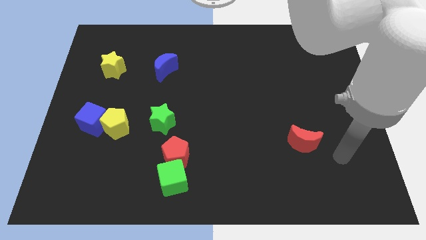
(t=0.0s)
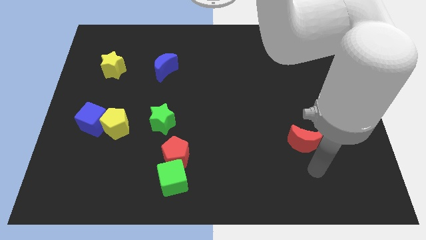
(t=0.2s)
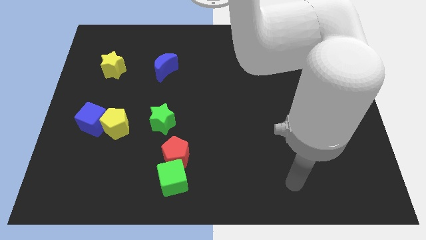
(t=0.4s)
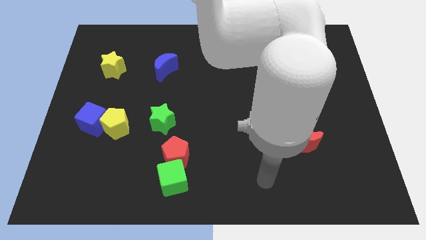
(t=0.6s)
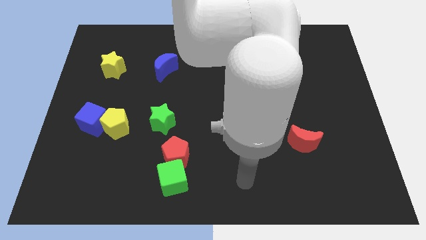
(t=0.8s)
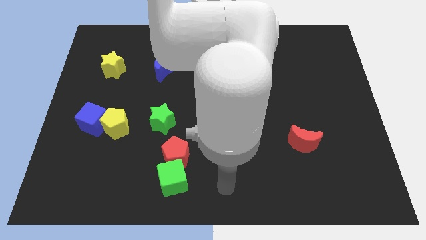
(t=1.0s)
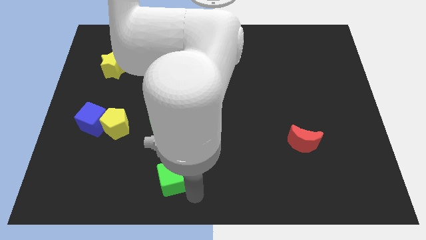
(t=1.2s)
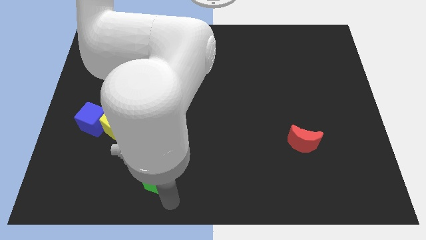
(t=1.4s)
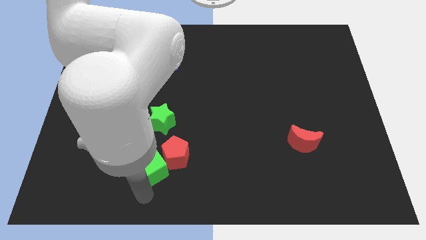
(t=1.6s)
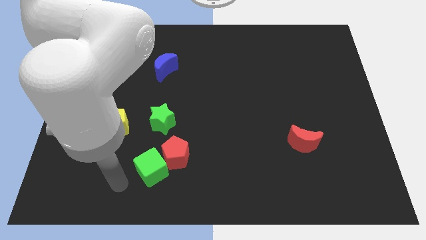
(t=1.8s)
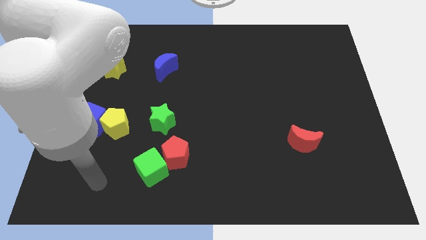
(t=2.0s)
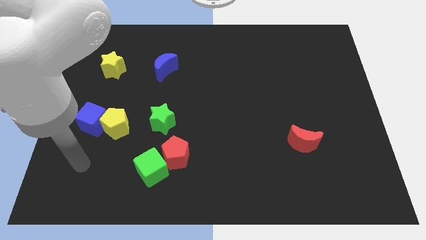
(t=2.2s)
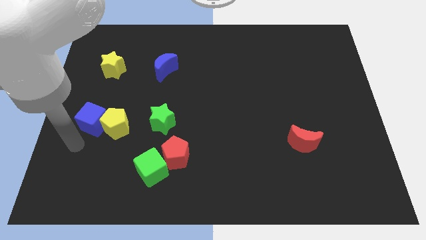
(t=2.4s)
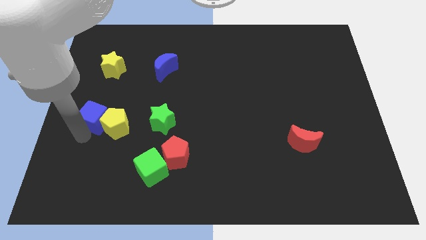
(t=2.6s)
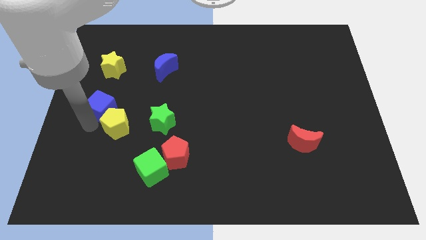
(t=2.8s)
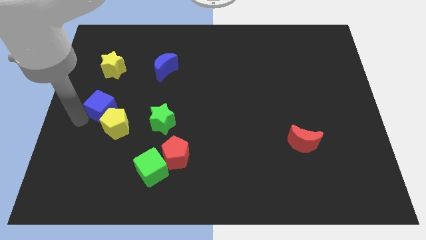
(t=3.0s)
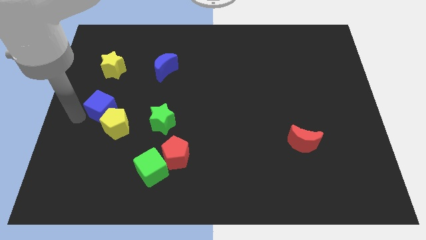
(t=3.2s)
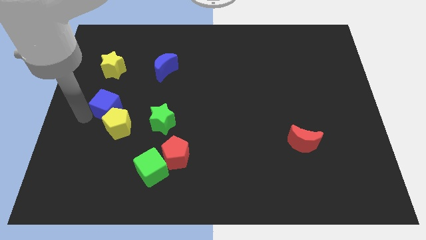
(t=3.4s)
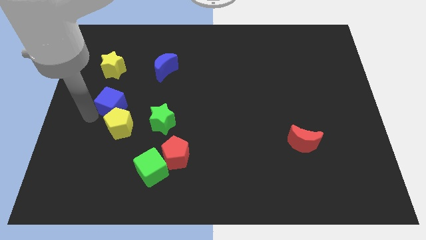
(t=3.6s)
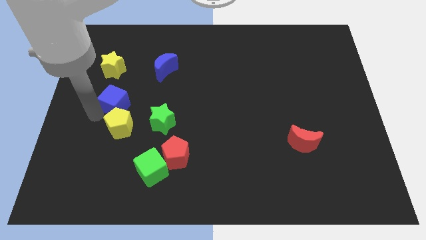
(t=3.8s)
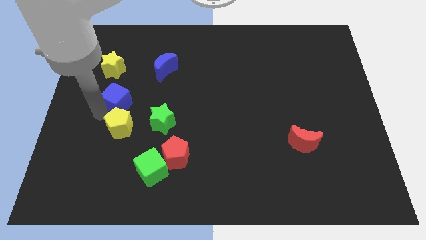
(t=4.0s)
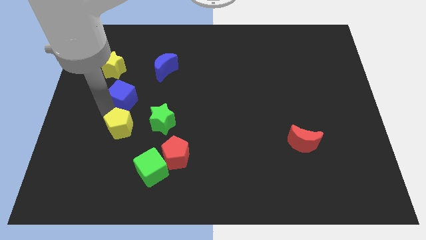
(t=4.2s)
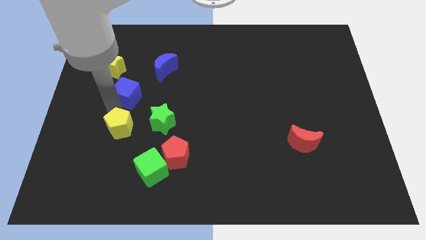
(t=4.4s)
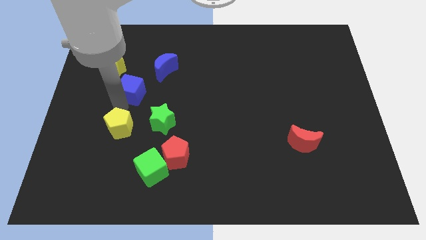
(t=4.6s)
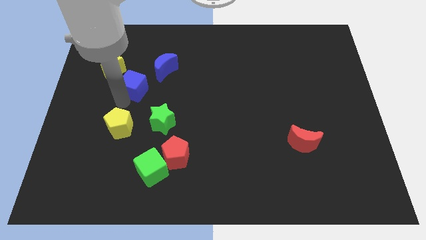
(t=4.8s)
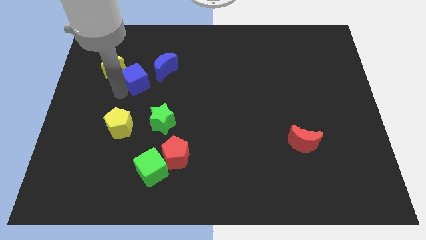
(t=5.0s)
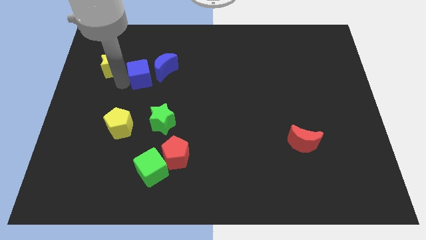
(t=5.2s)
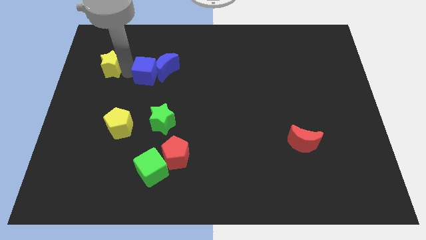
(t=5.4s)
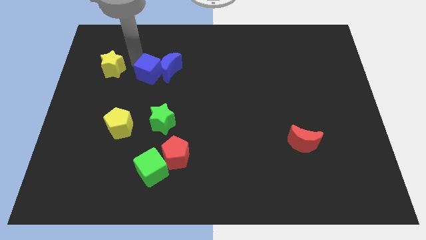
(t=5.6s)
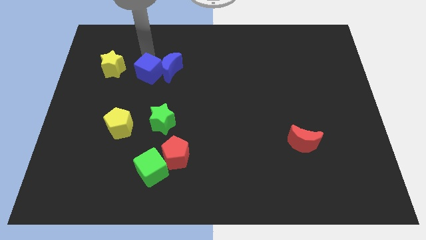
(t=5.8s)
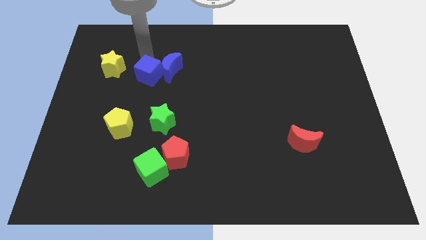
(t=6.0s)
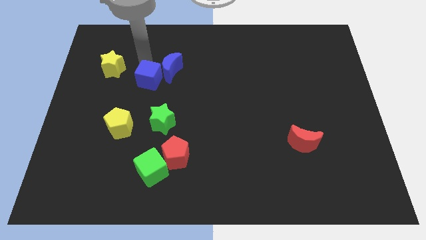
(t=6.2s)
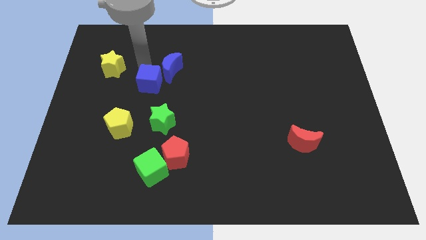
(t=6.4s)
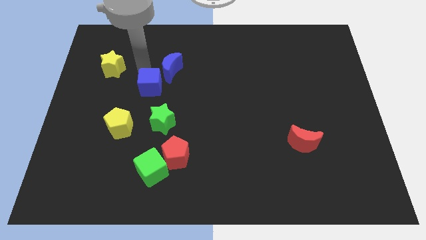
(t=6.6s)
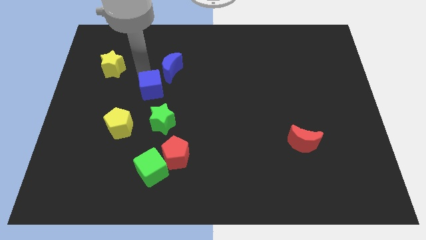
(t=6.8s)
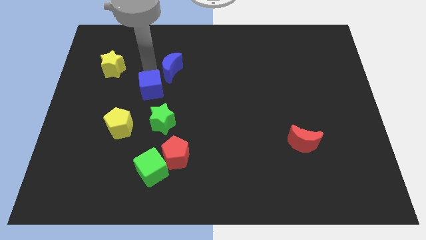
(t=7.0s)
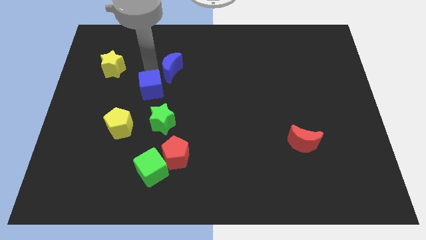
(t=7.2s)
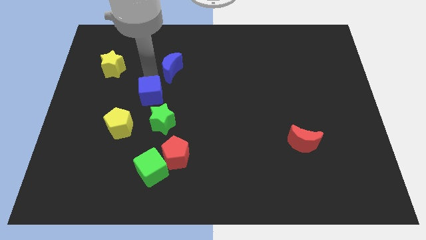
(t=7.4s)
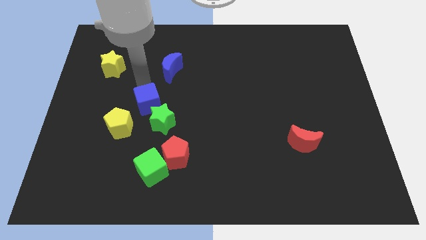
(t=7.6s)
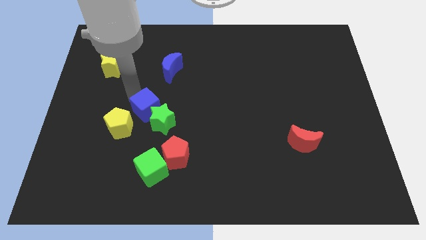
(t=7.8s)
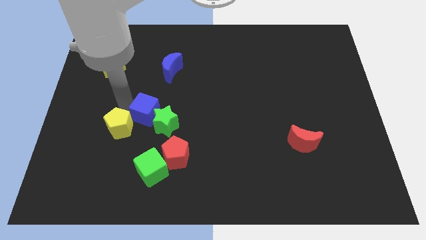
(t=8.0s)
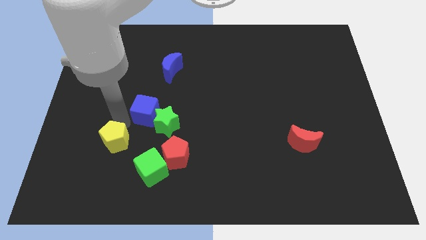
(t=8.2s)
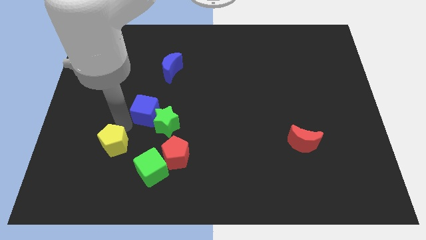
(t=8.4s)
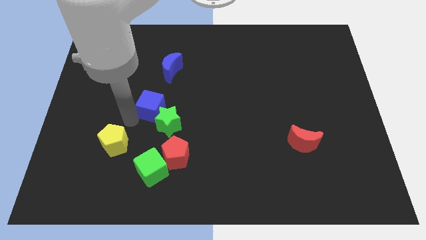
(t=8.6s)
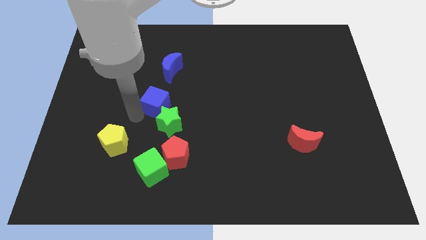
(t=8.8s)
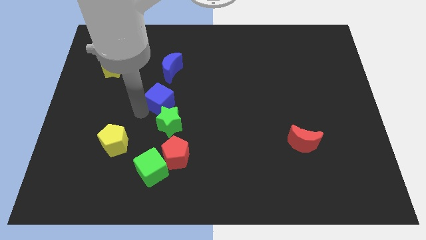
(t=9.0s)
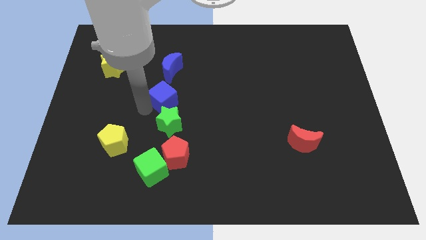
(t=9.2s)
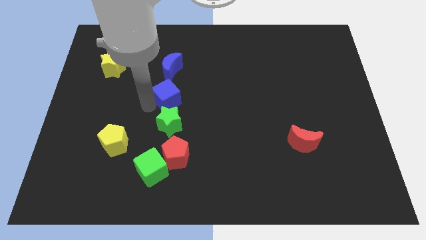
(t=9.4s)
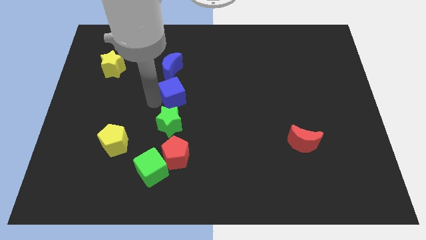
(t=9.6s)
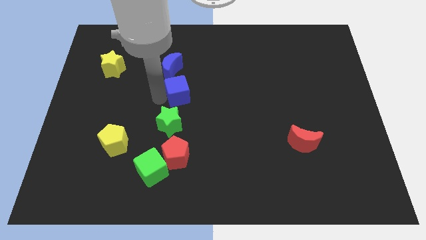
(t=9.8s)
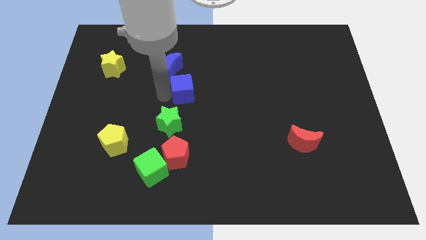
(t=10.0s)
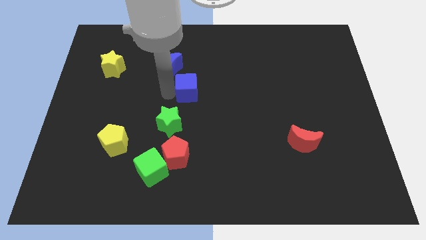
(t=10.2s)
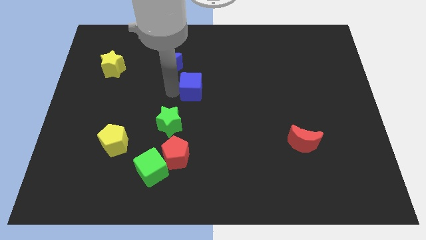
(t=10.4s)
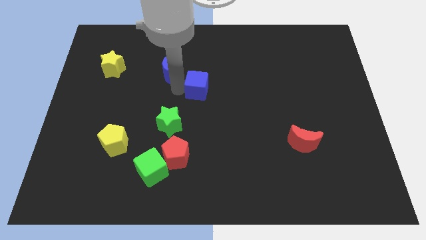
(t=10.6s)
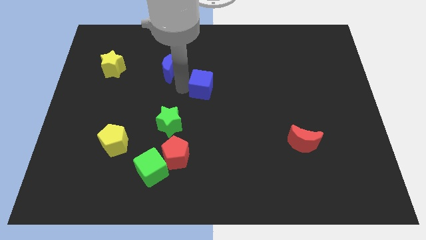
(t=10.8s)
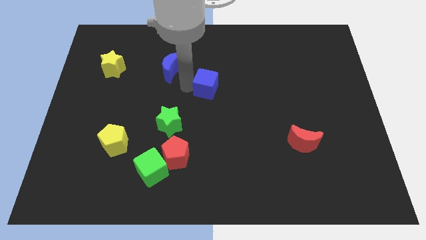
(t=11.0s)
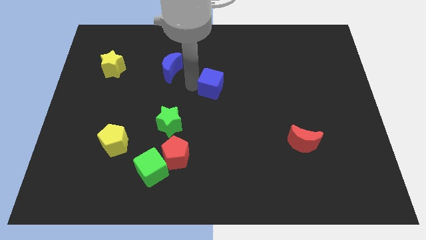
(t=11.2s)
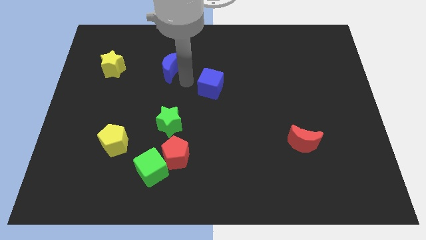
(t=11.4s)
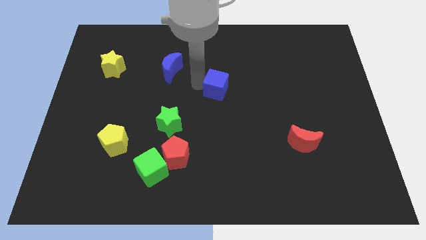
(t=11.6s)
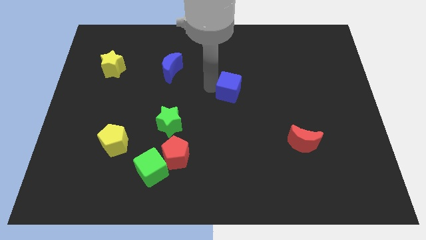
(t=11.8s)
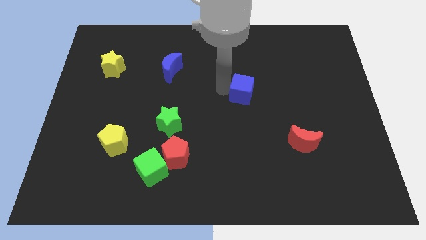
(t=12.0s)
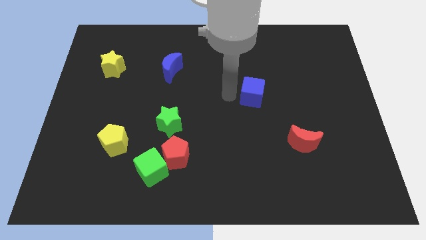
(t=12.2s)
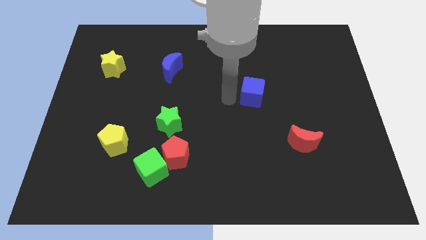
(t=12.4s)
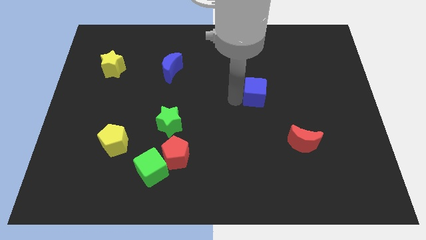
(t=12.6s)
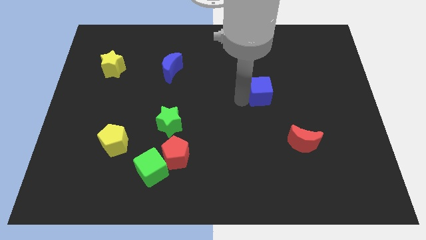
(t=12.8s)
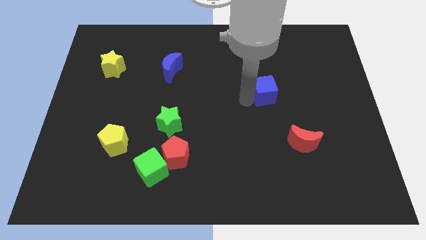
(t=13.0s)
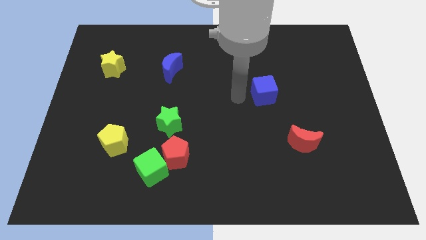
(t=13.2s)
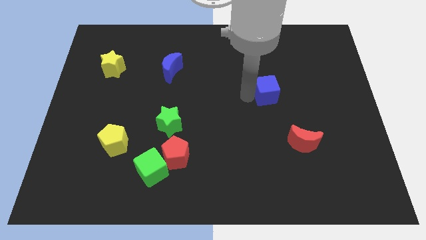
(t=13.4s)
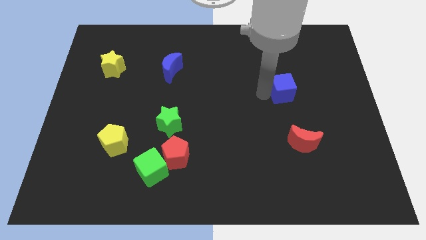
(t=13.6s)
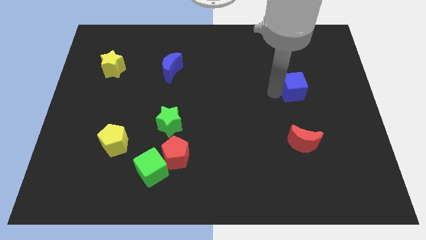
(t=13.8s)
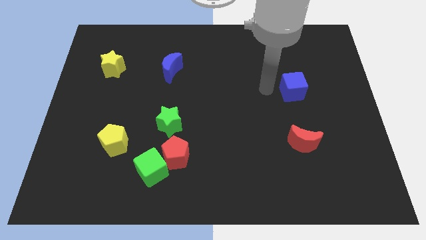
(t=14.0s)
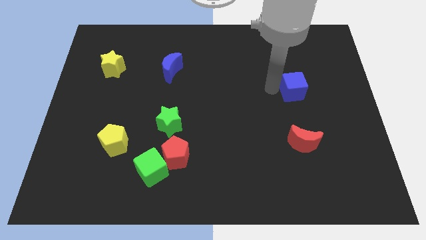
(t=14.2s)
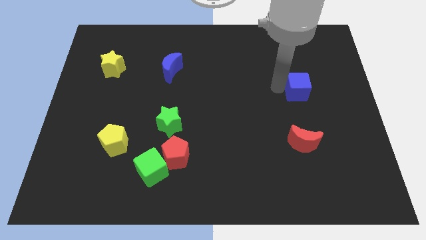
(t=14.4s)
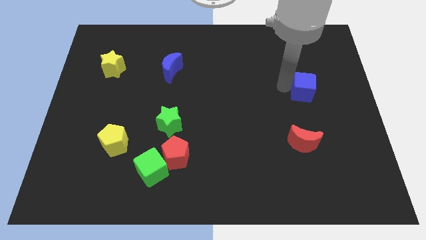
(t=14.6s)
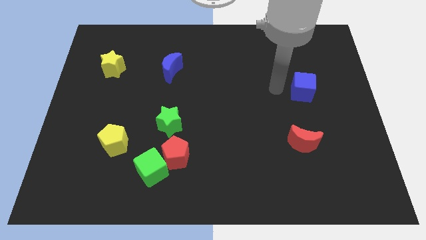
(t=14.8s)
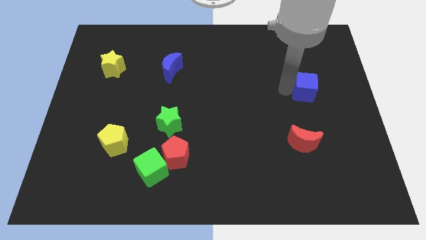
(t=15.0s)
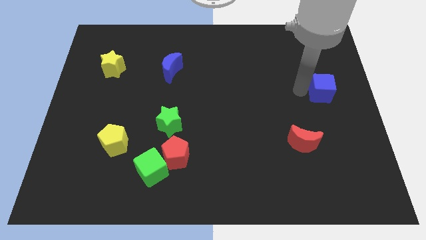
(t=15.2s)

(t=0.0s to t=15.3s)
slide the blue cube to the center right
